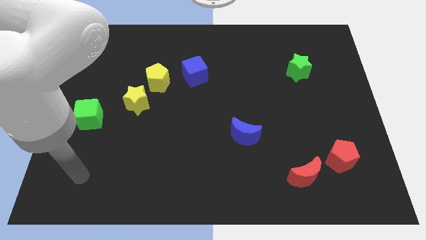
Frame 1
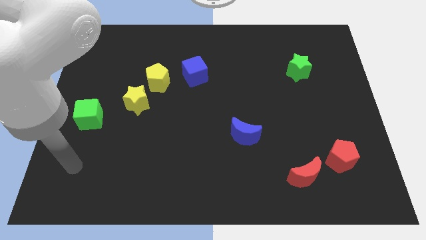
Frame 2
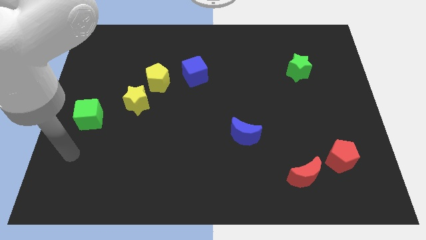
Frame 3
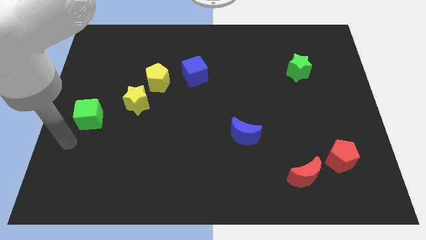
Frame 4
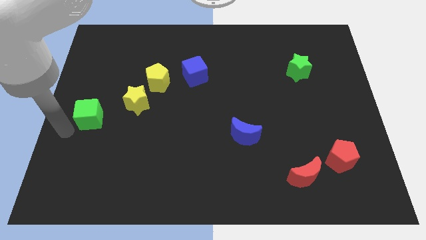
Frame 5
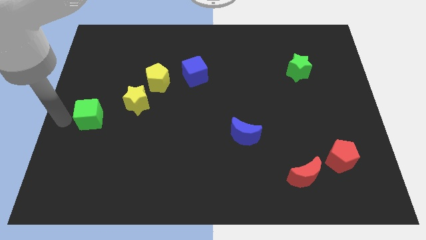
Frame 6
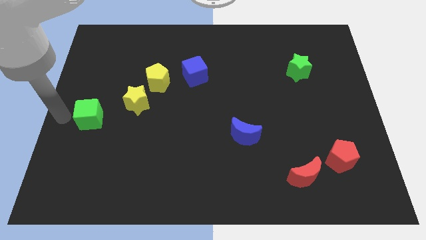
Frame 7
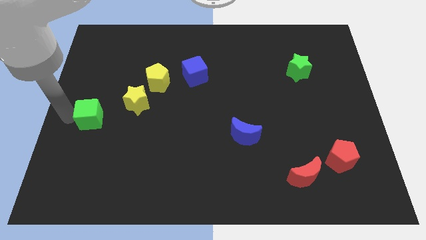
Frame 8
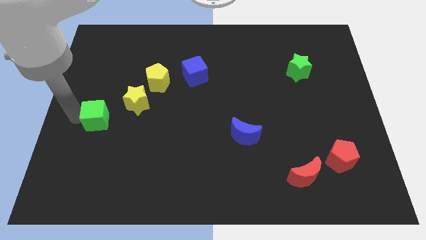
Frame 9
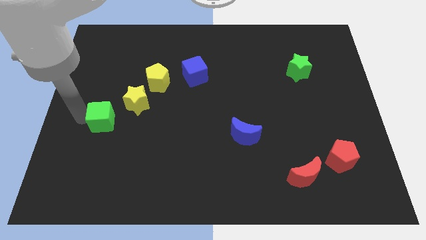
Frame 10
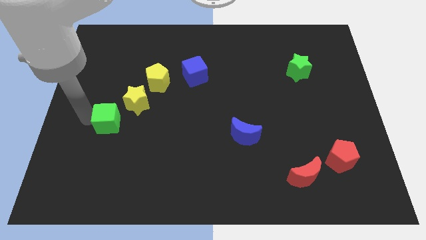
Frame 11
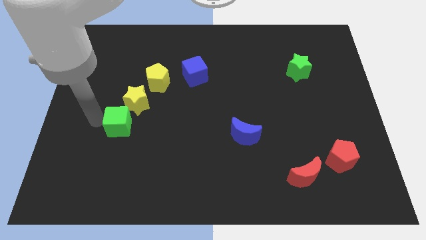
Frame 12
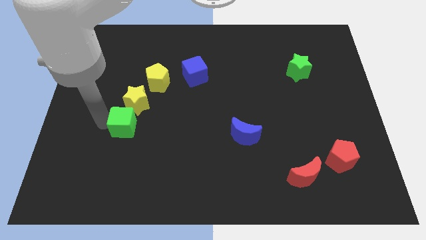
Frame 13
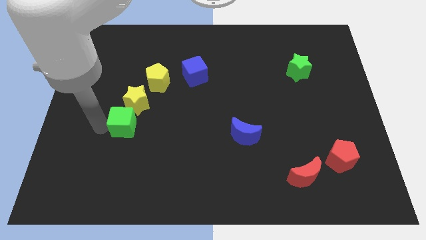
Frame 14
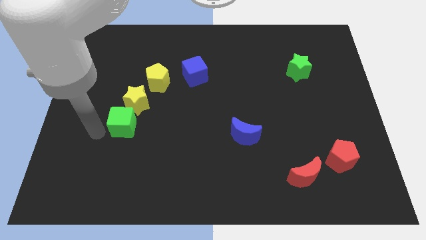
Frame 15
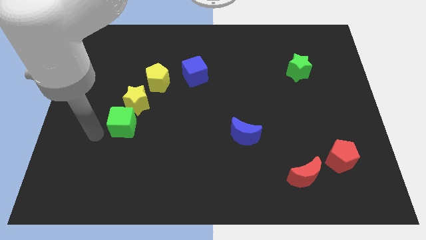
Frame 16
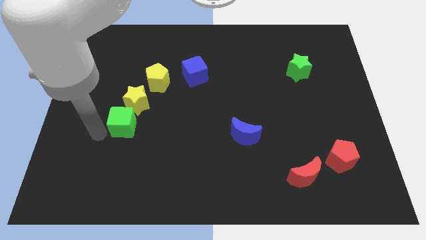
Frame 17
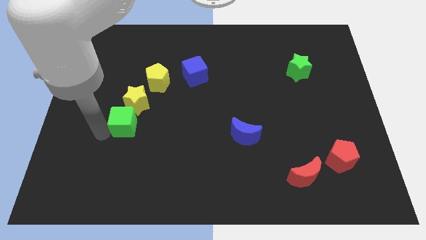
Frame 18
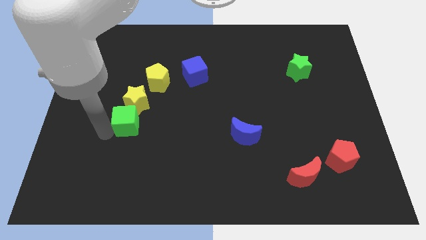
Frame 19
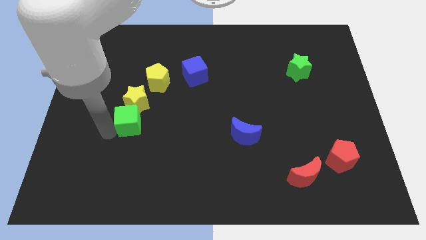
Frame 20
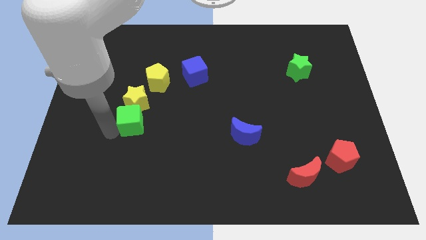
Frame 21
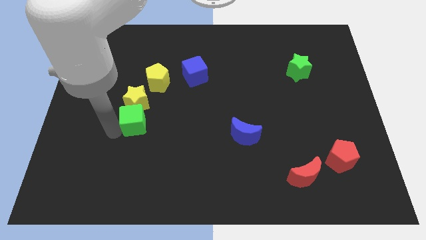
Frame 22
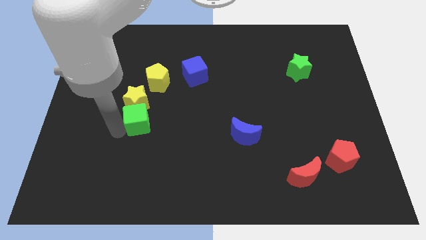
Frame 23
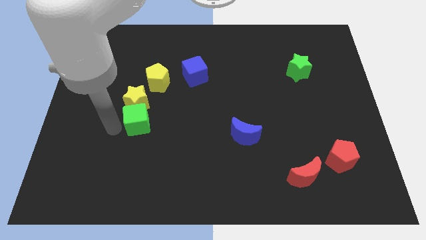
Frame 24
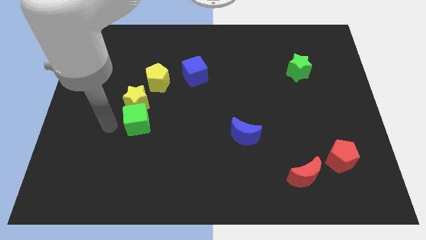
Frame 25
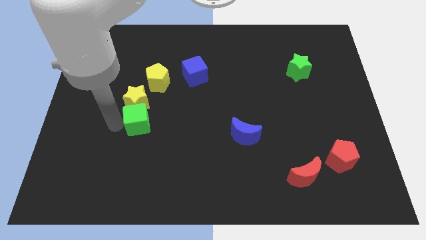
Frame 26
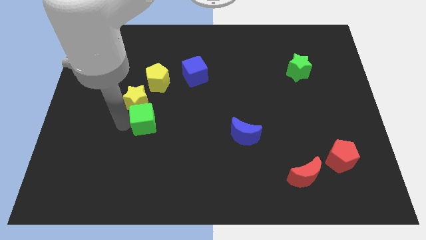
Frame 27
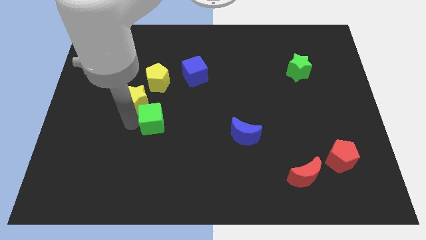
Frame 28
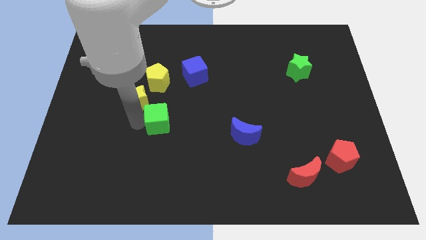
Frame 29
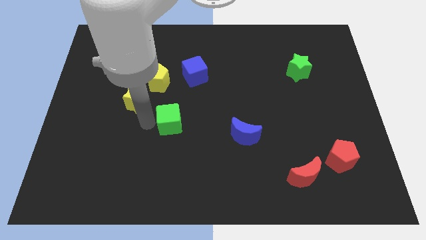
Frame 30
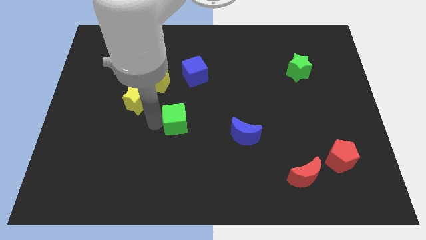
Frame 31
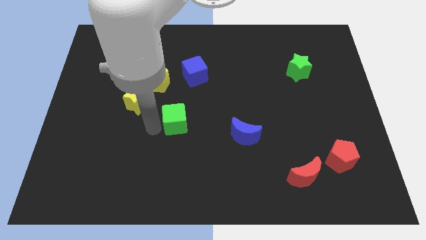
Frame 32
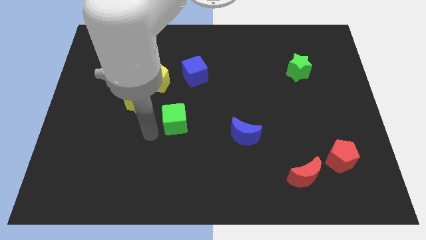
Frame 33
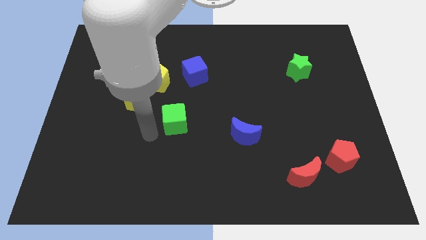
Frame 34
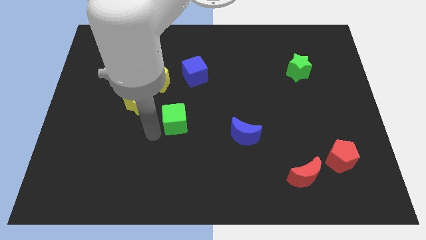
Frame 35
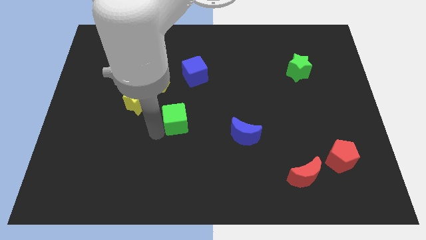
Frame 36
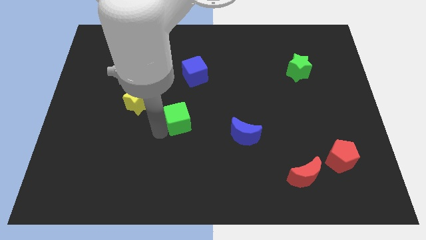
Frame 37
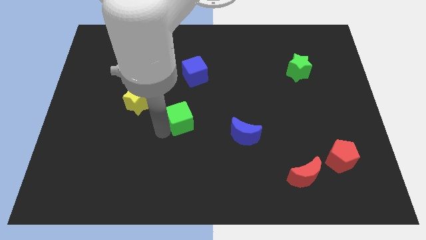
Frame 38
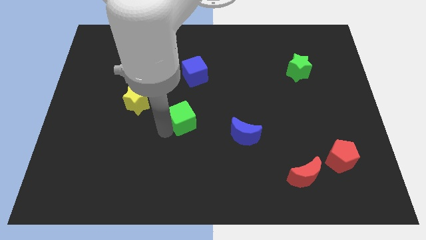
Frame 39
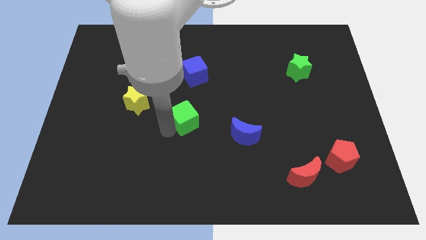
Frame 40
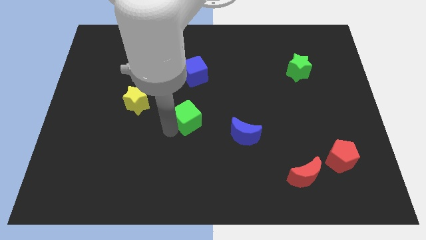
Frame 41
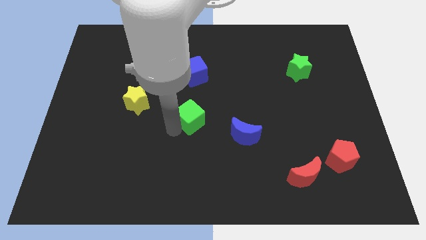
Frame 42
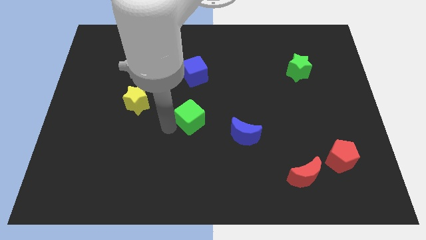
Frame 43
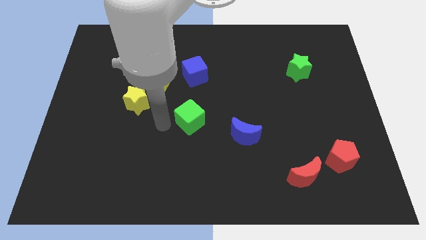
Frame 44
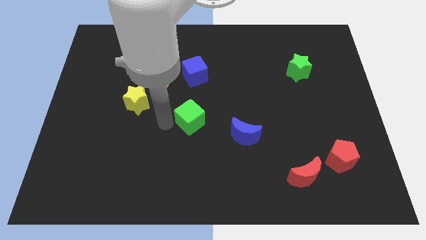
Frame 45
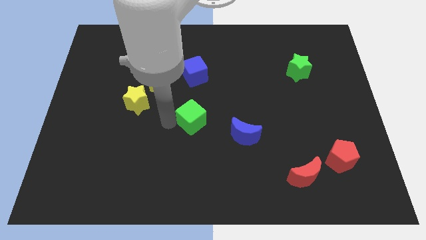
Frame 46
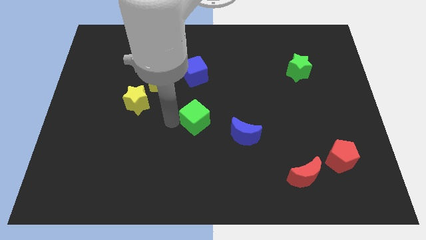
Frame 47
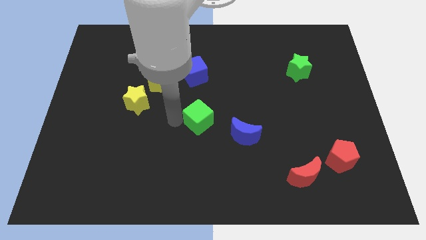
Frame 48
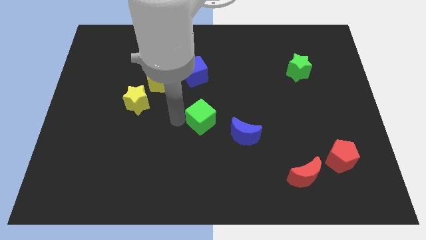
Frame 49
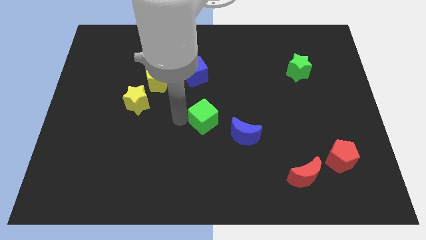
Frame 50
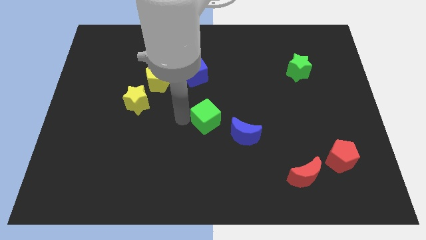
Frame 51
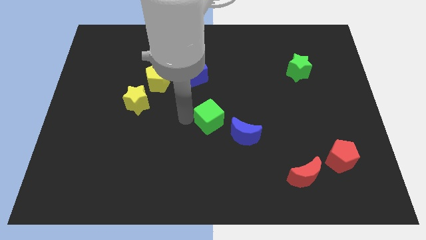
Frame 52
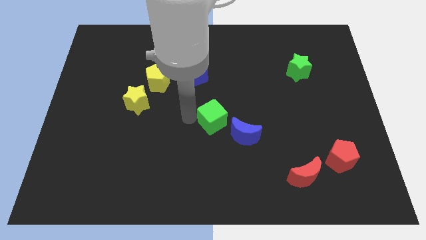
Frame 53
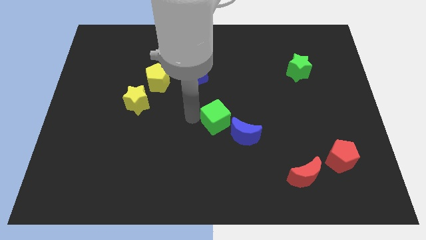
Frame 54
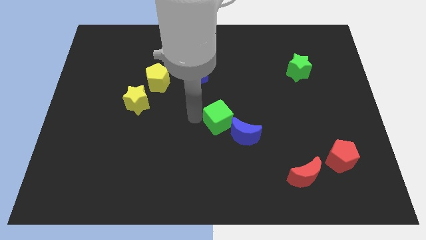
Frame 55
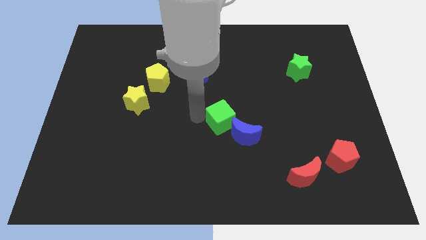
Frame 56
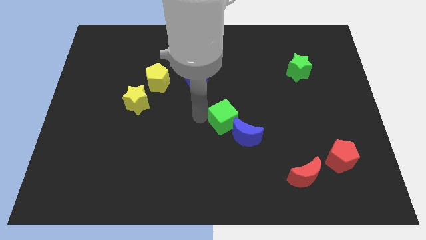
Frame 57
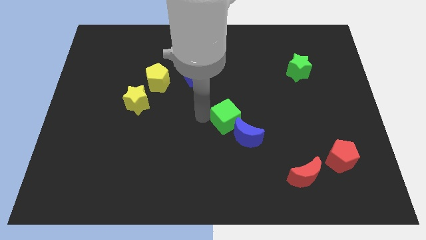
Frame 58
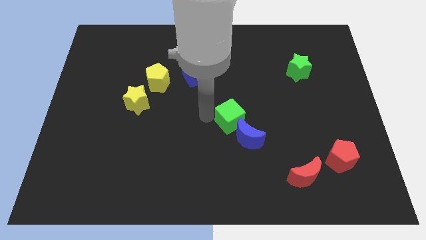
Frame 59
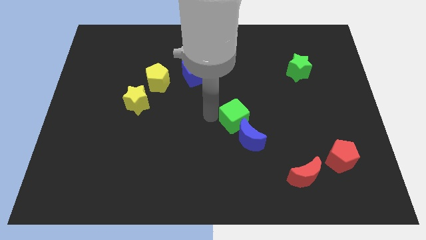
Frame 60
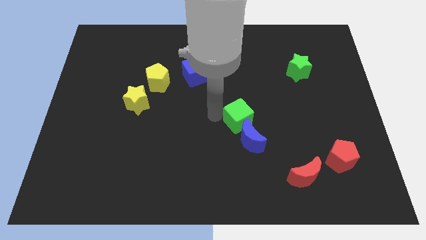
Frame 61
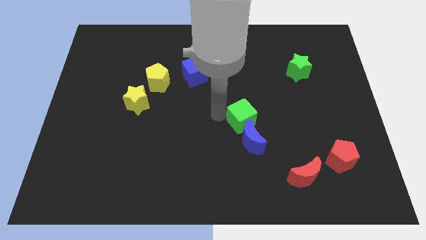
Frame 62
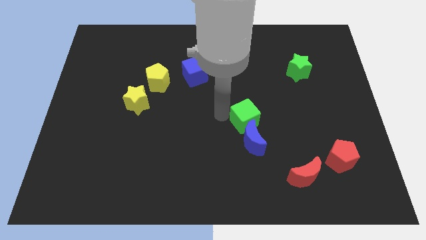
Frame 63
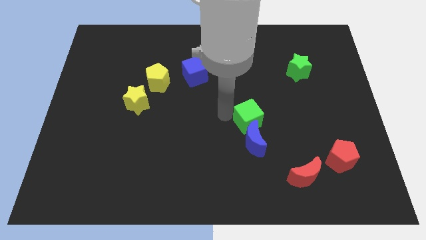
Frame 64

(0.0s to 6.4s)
put the green cube to the top right side of the blue moon

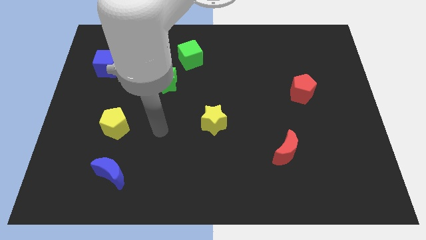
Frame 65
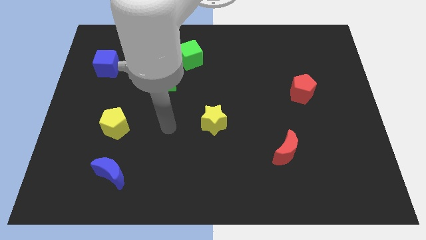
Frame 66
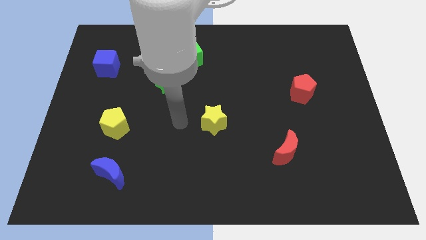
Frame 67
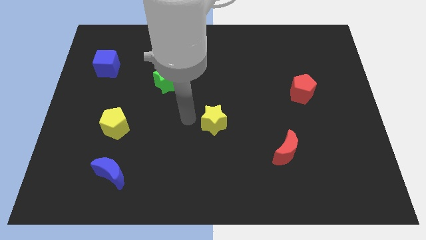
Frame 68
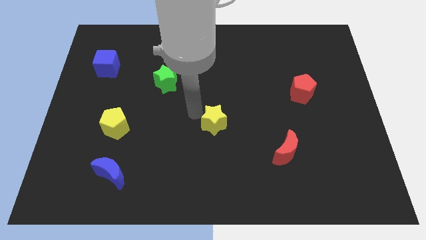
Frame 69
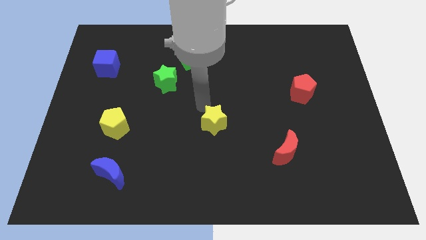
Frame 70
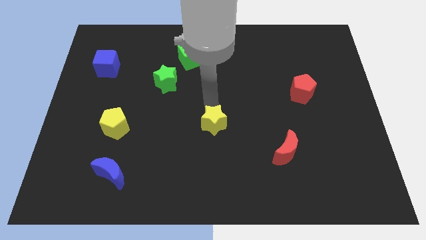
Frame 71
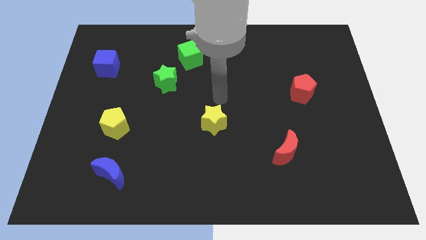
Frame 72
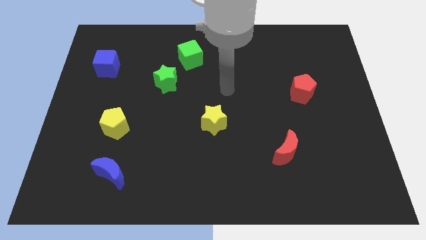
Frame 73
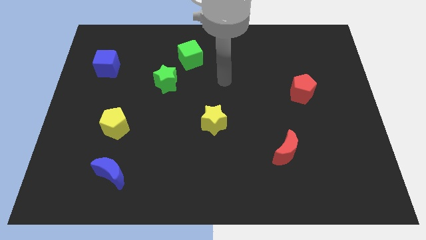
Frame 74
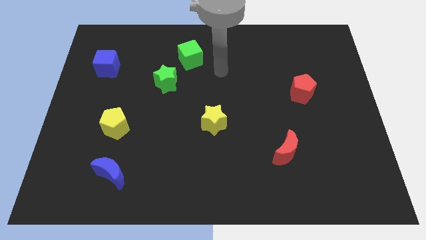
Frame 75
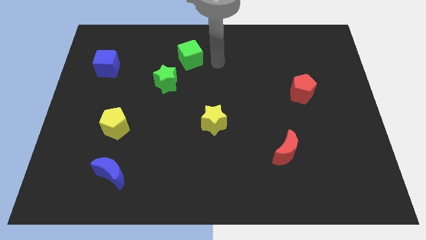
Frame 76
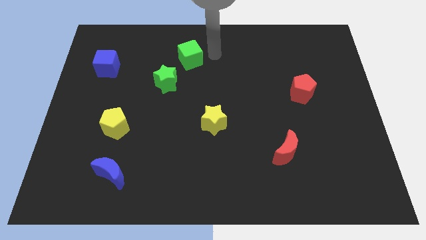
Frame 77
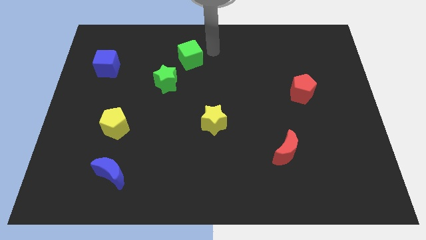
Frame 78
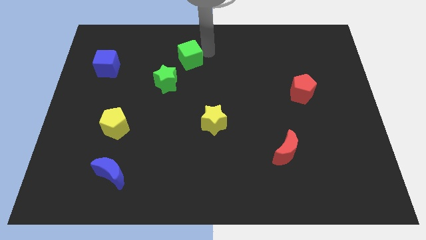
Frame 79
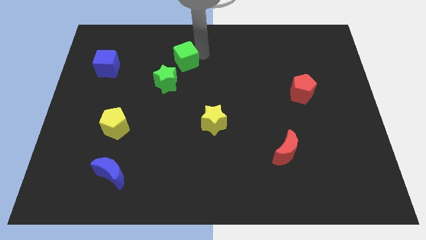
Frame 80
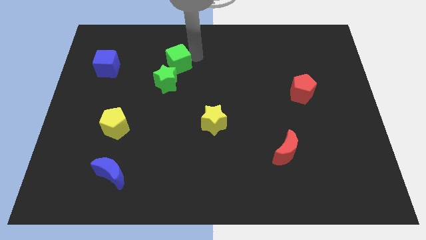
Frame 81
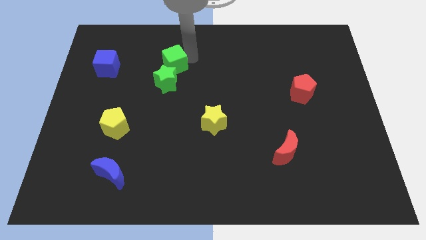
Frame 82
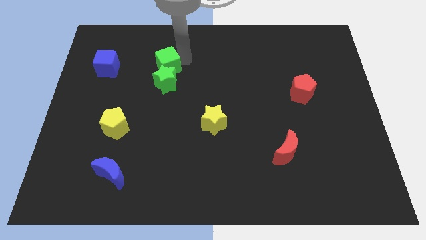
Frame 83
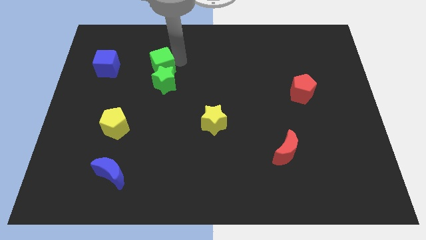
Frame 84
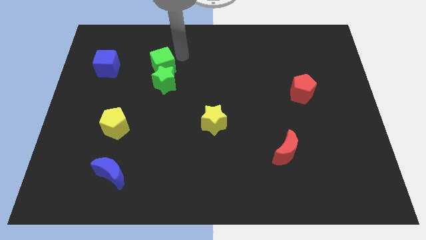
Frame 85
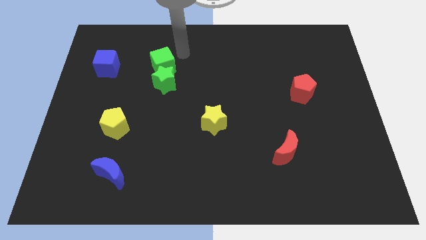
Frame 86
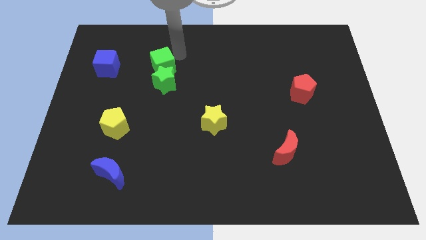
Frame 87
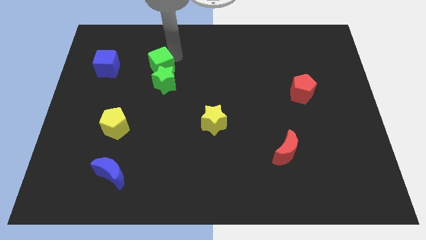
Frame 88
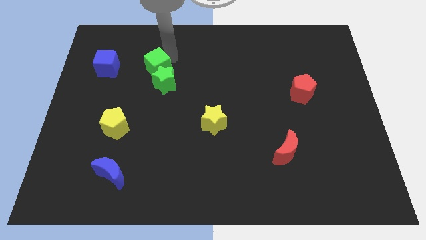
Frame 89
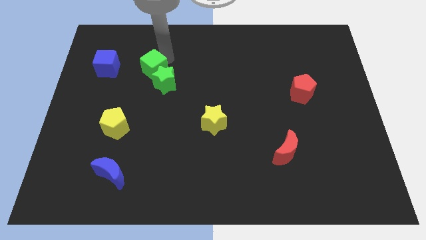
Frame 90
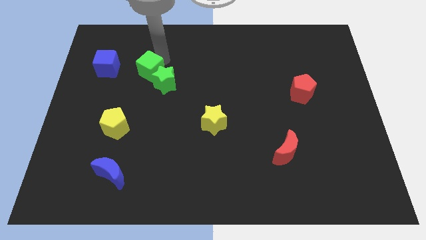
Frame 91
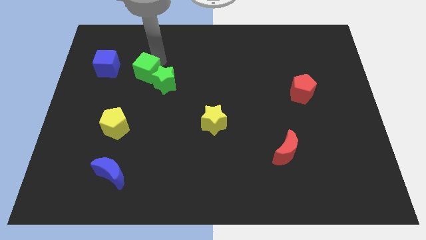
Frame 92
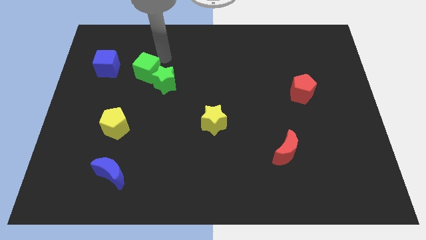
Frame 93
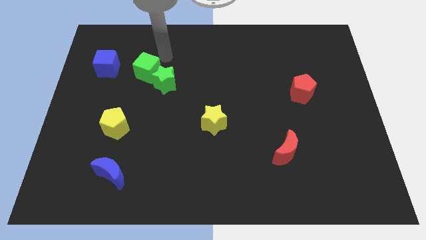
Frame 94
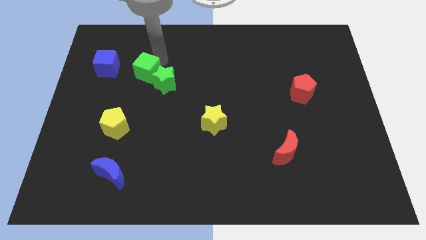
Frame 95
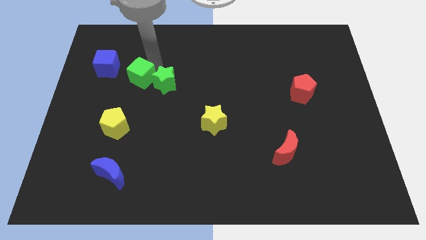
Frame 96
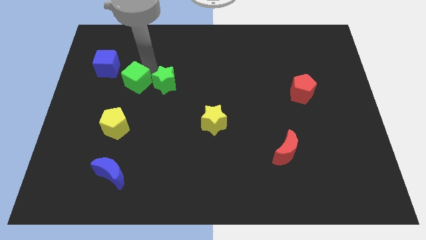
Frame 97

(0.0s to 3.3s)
slide the green cube above the yellow pentagon
